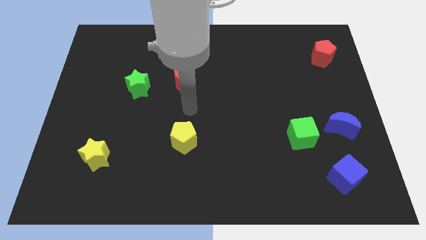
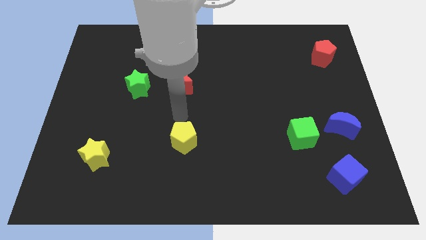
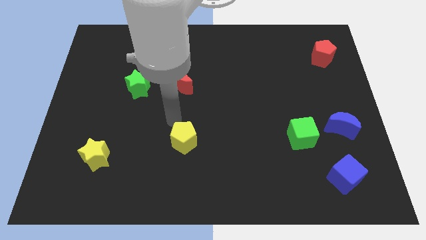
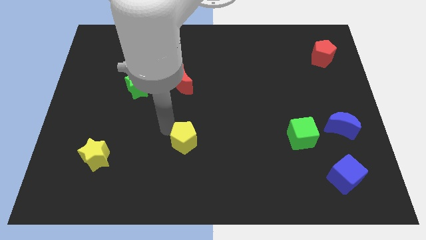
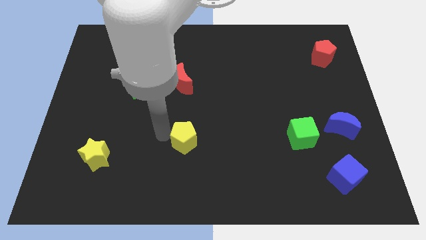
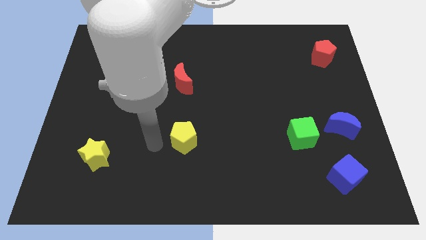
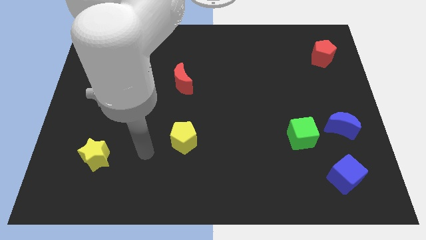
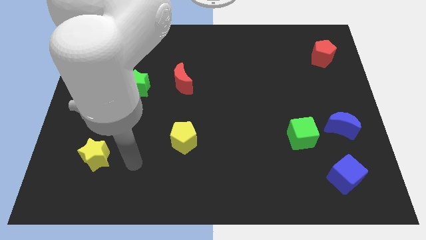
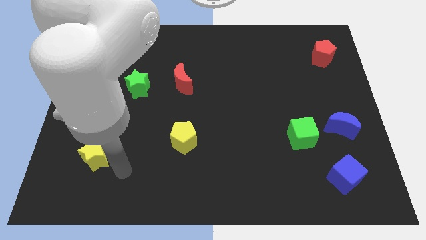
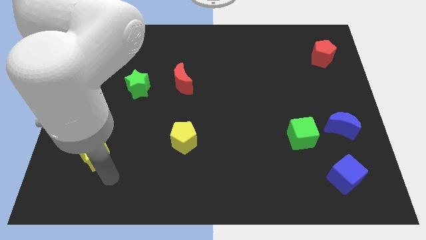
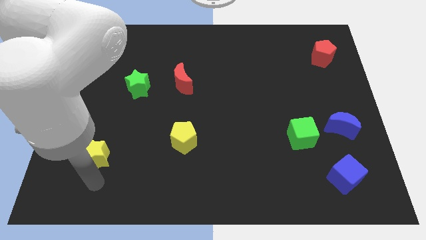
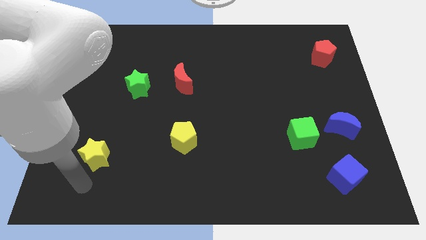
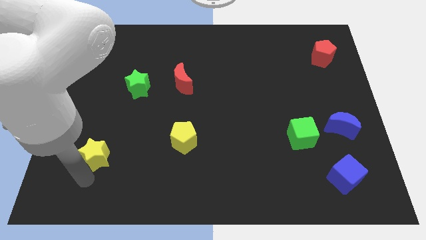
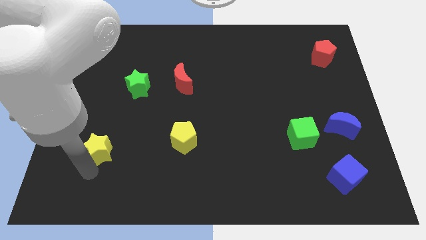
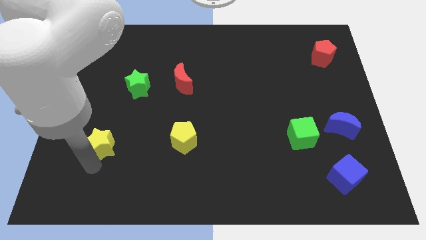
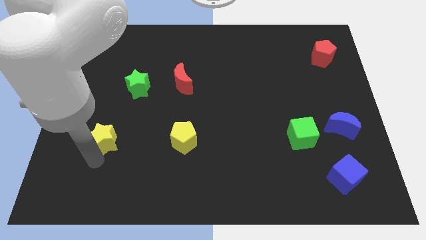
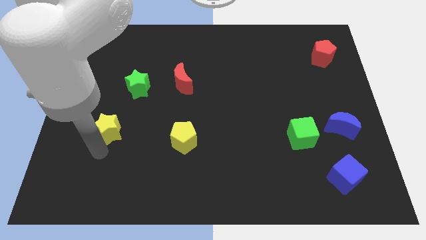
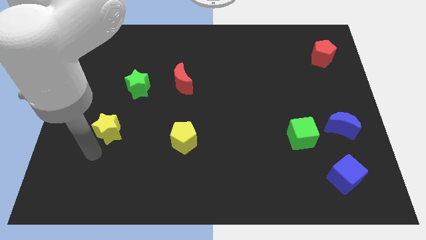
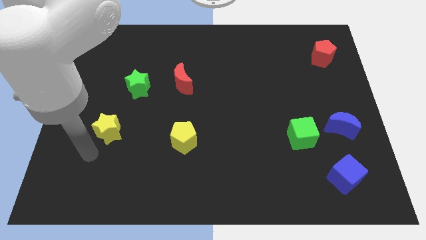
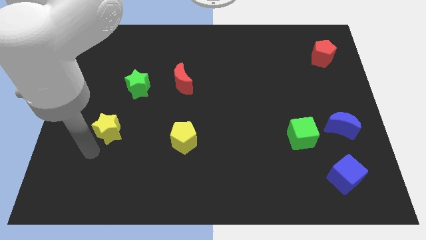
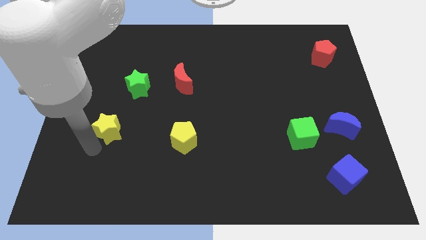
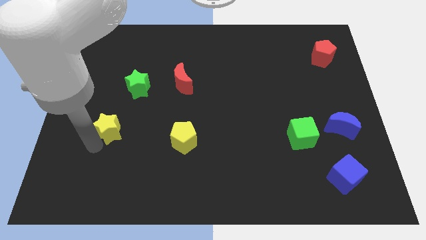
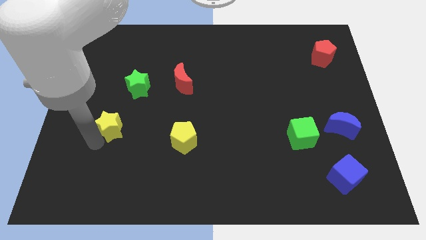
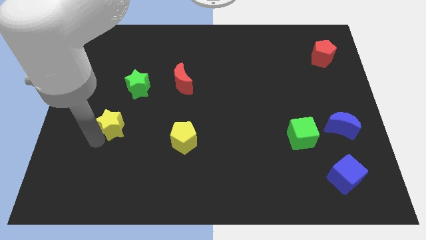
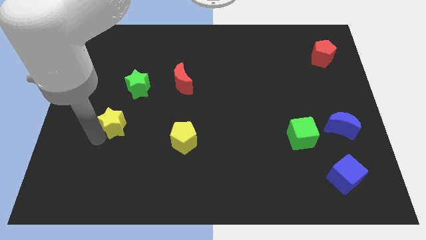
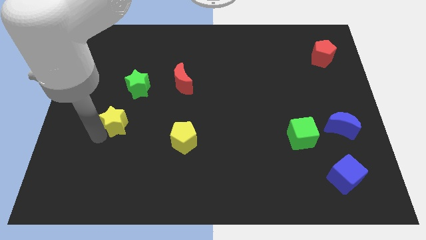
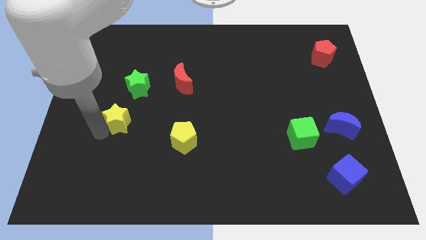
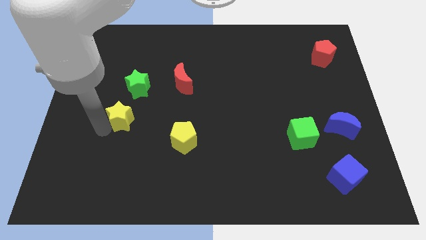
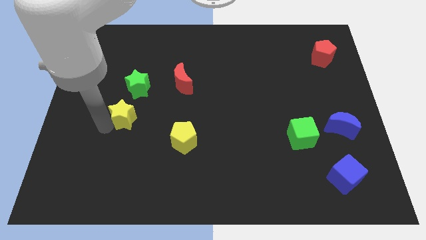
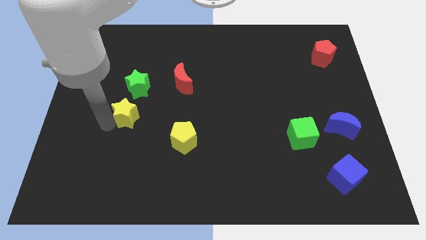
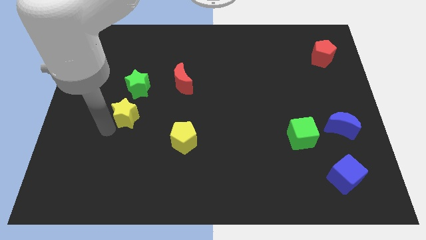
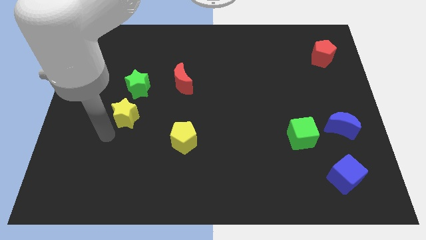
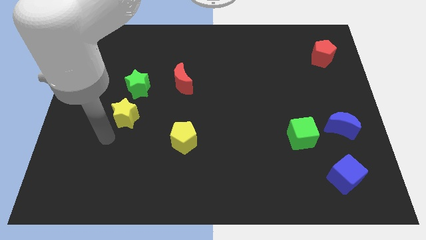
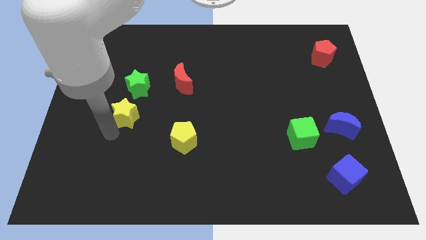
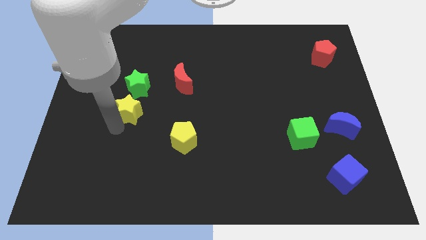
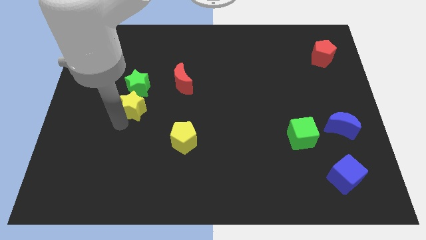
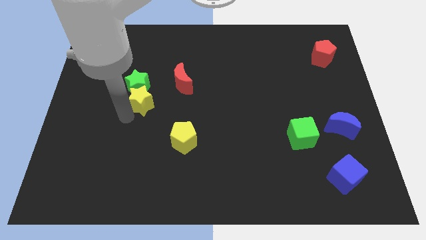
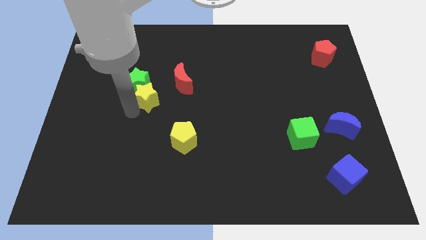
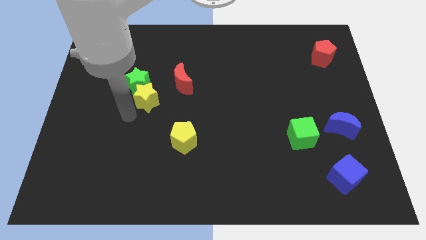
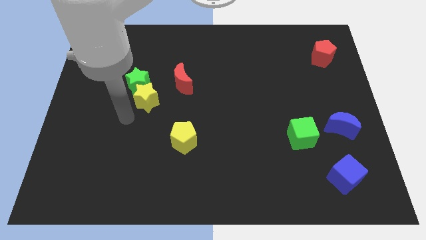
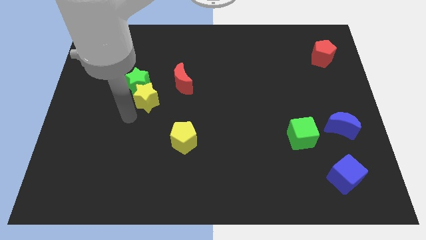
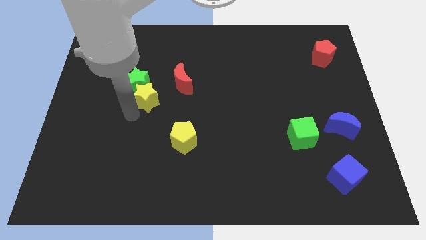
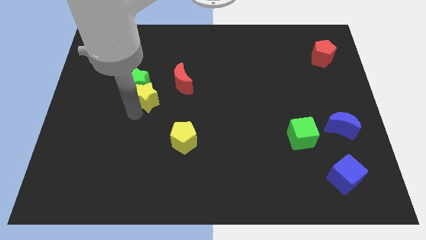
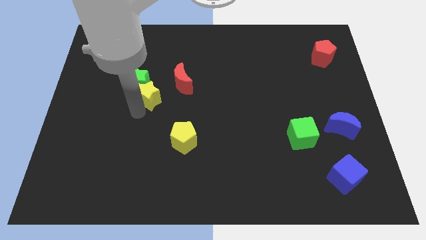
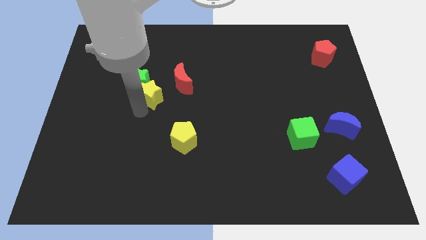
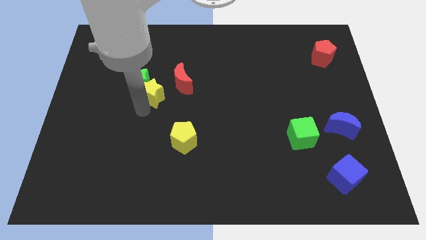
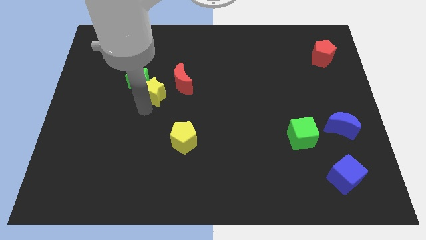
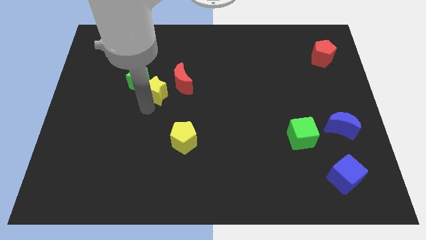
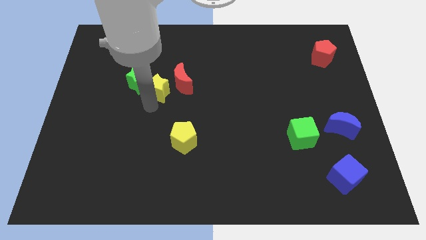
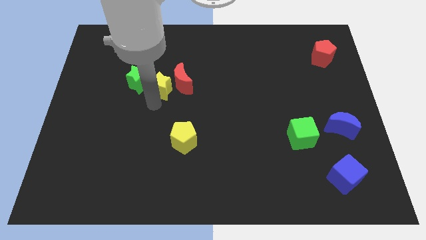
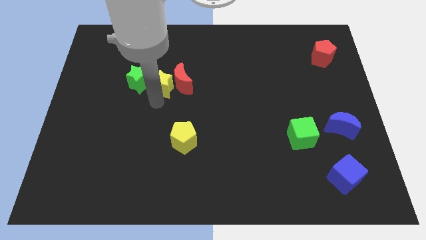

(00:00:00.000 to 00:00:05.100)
slide the yellow star to the top left of the red moon

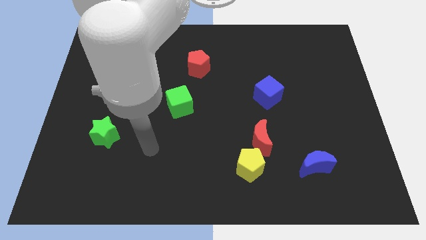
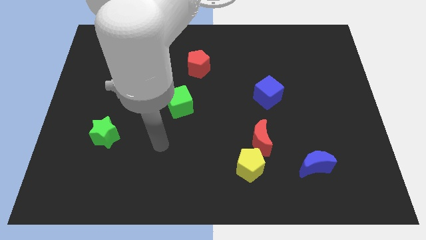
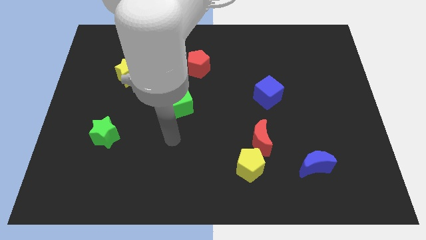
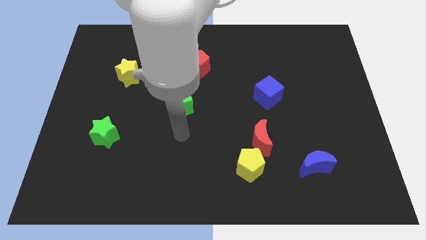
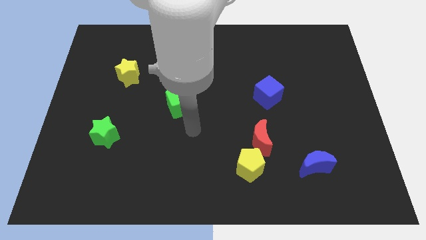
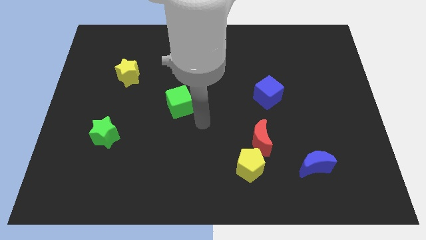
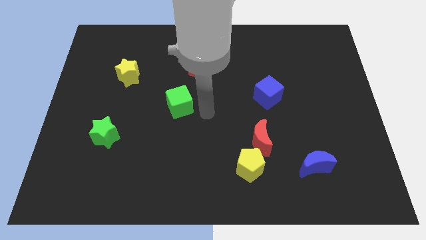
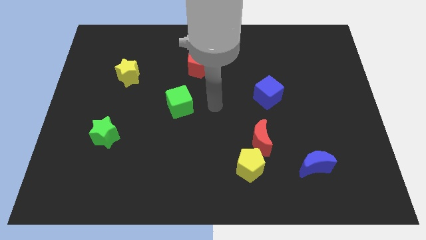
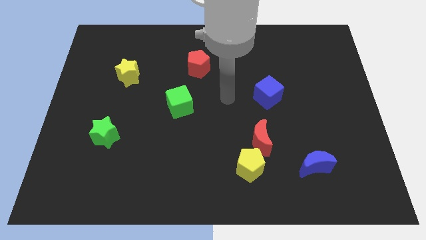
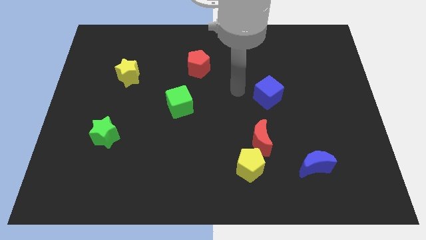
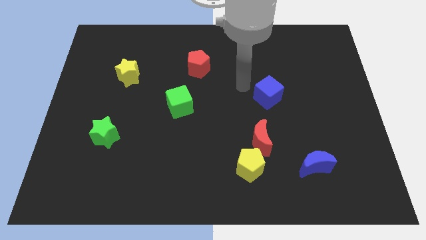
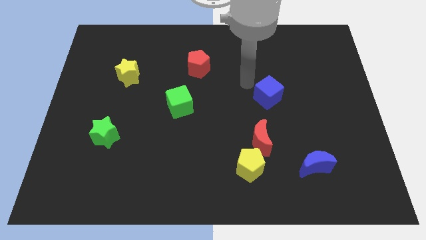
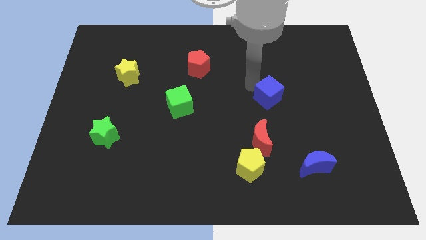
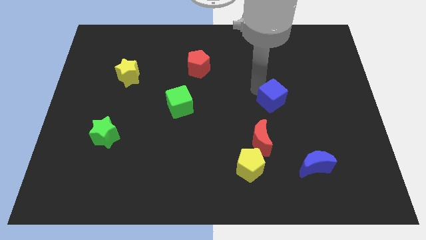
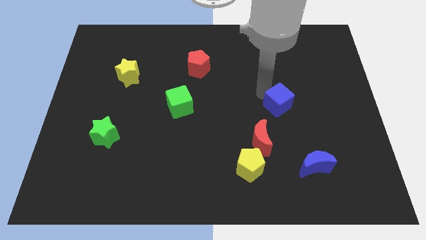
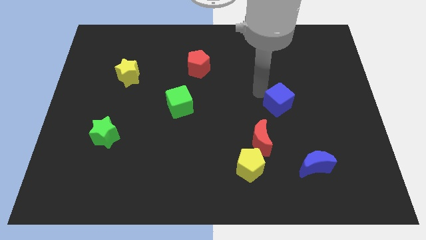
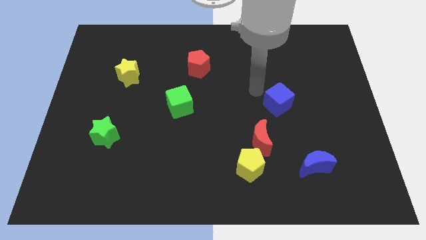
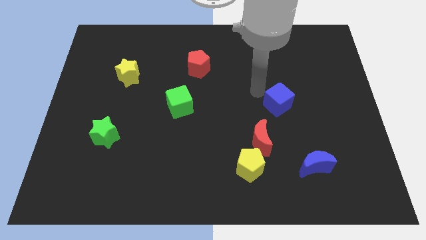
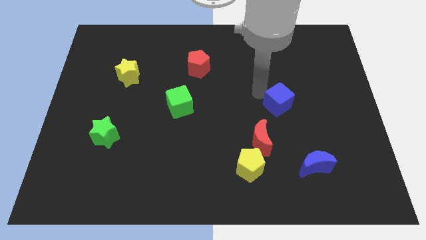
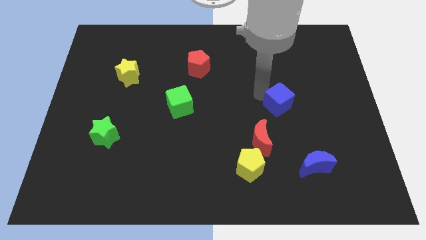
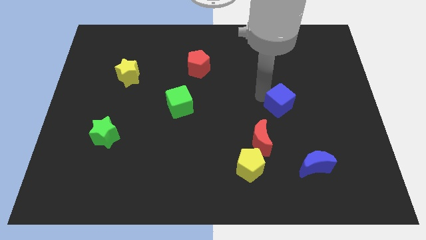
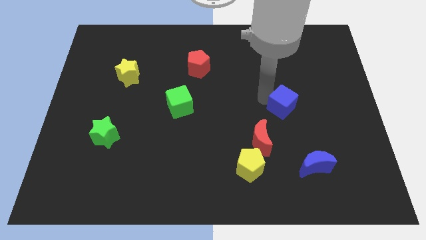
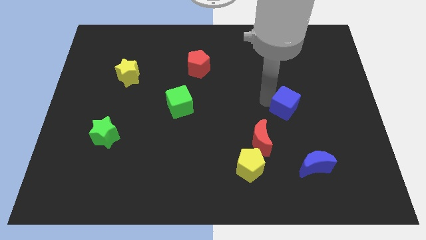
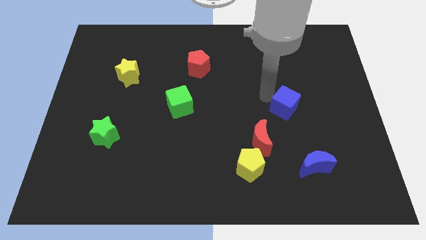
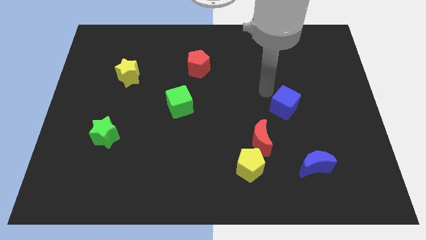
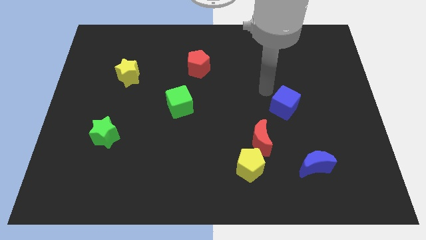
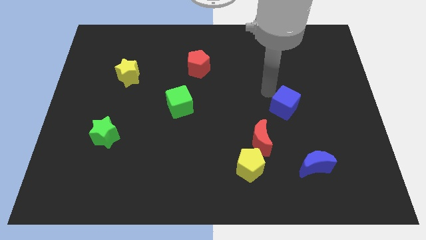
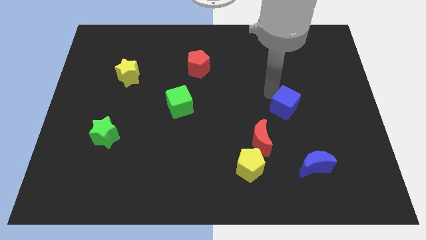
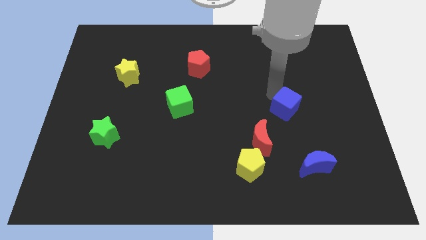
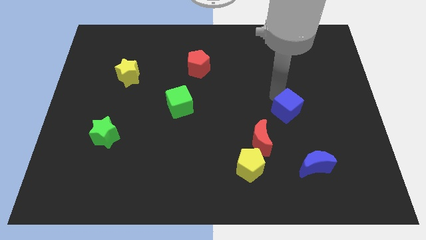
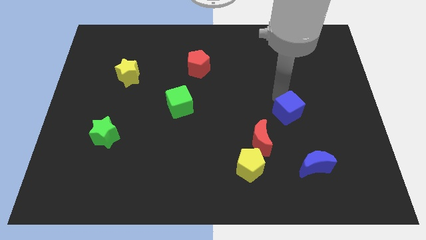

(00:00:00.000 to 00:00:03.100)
slide the blue cube to the top side of the blue moon
